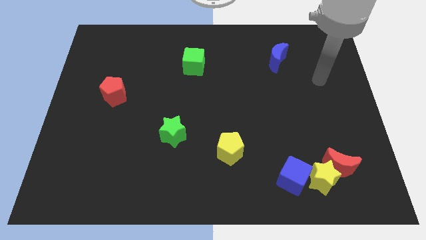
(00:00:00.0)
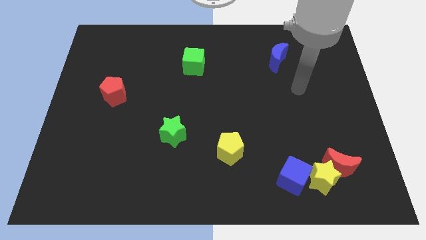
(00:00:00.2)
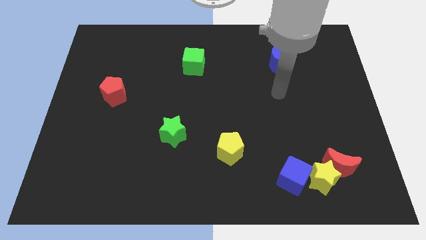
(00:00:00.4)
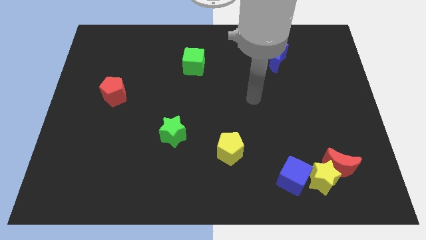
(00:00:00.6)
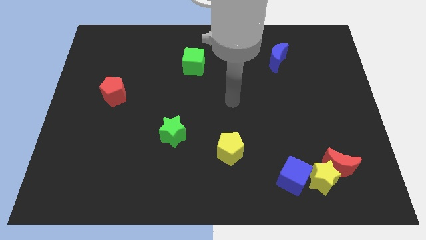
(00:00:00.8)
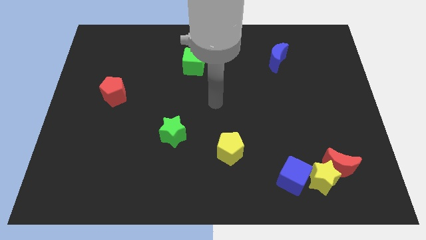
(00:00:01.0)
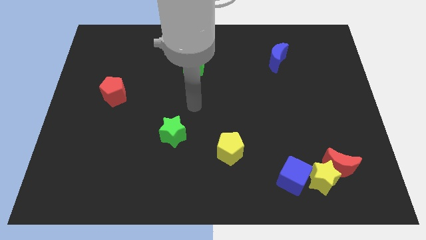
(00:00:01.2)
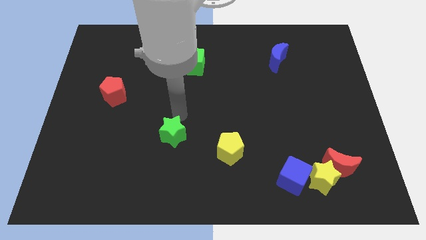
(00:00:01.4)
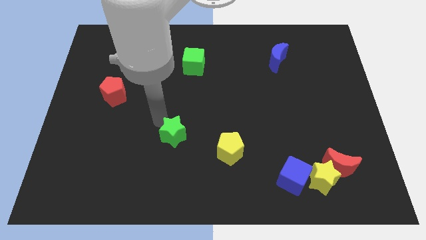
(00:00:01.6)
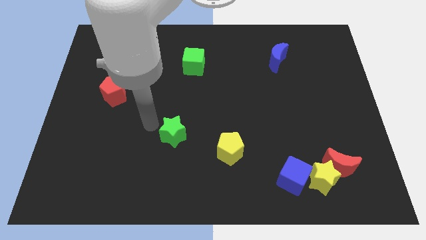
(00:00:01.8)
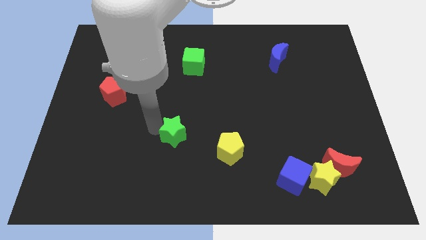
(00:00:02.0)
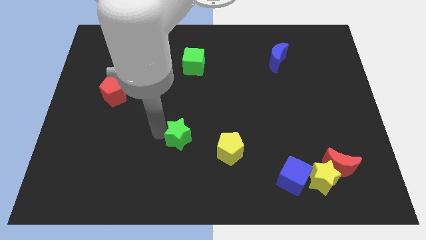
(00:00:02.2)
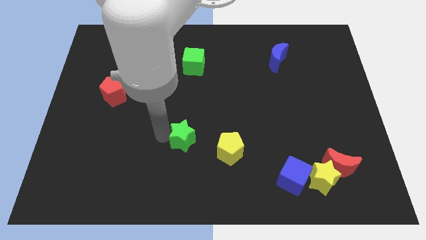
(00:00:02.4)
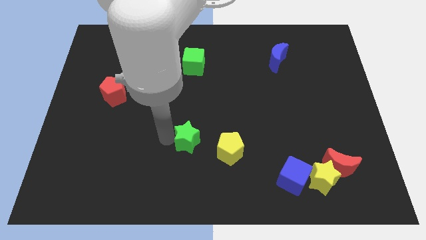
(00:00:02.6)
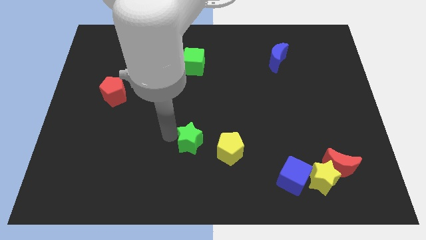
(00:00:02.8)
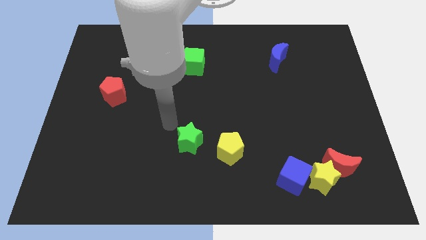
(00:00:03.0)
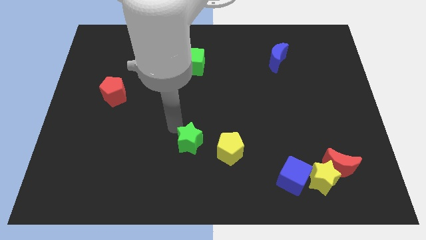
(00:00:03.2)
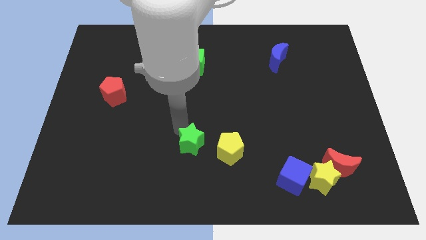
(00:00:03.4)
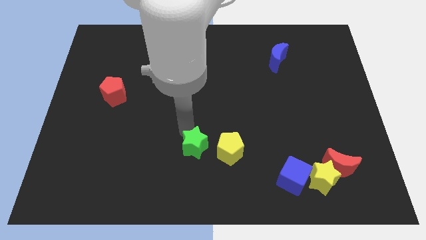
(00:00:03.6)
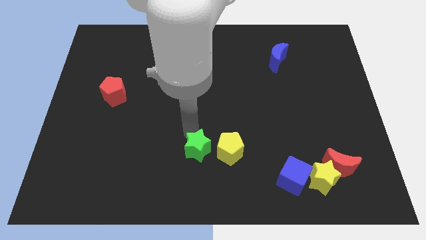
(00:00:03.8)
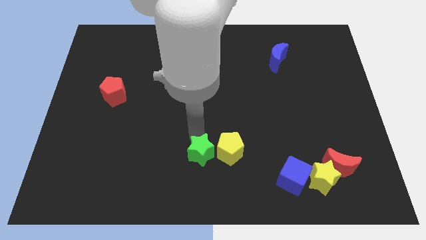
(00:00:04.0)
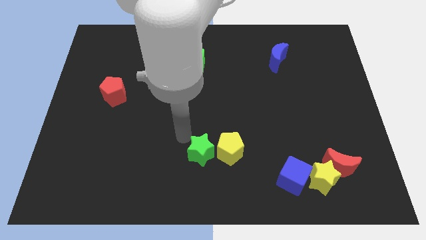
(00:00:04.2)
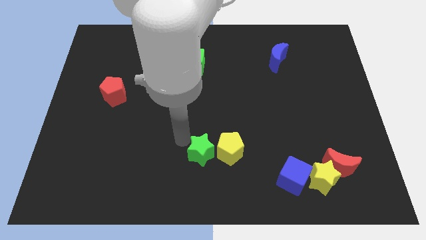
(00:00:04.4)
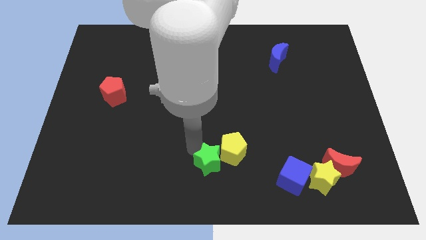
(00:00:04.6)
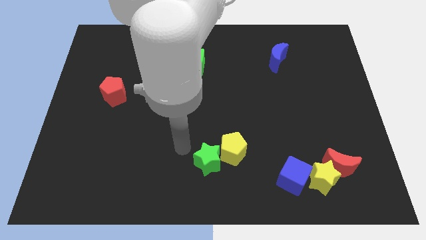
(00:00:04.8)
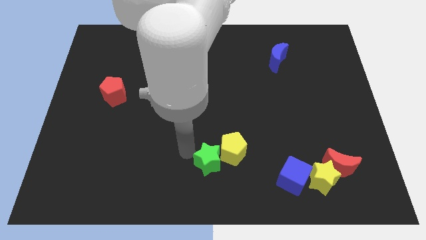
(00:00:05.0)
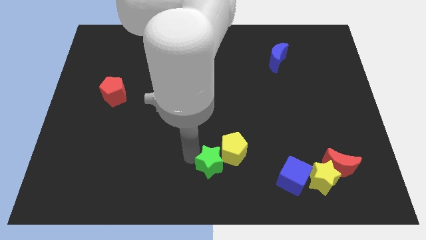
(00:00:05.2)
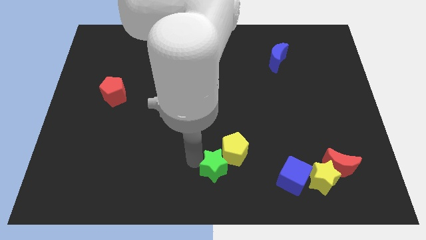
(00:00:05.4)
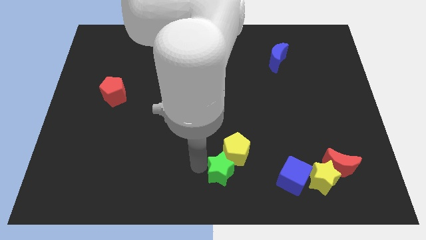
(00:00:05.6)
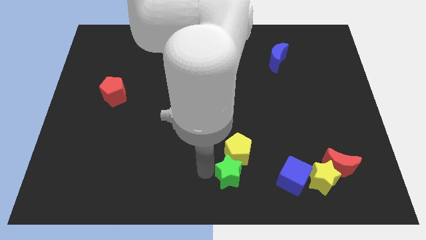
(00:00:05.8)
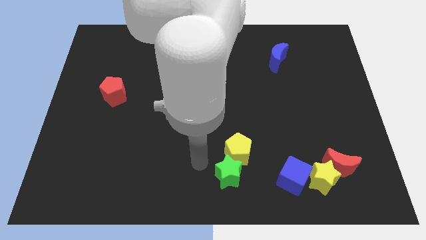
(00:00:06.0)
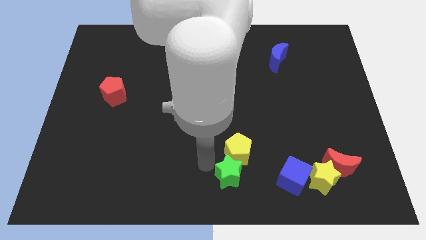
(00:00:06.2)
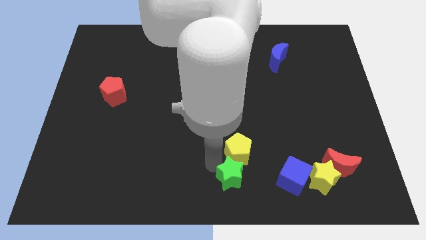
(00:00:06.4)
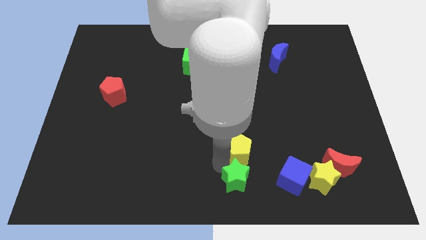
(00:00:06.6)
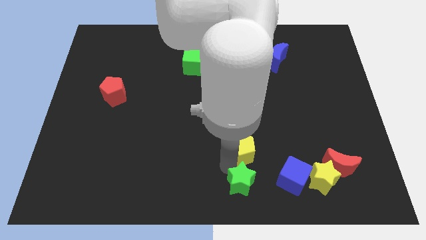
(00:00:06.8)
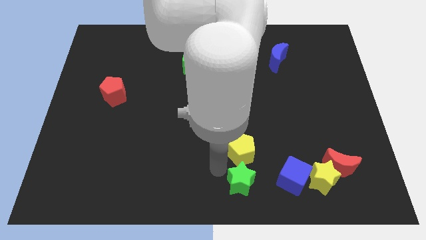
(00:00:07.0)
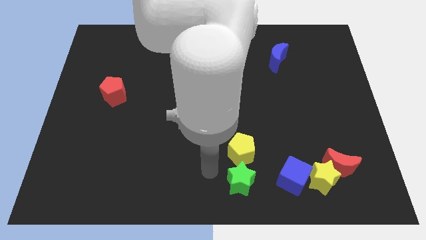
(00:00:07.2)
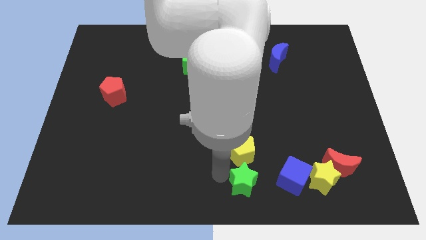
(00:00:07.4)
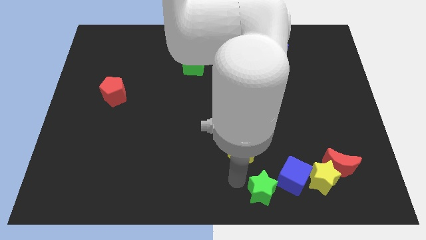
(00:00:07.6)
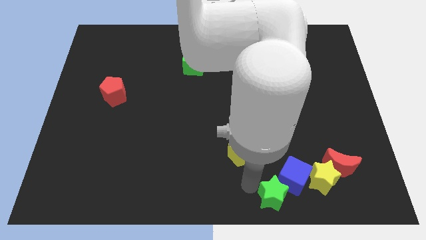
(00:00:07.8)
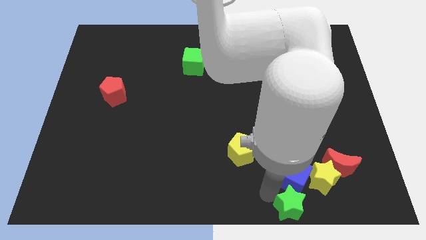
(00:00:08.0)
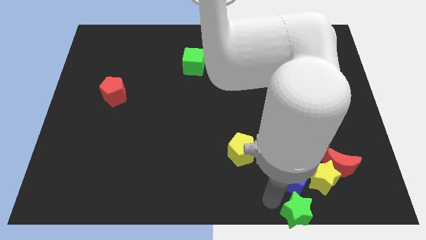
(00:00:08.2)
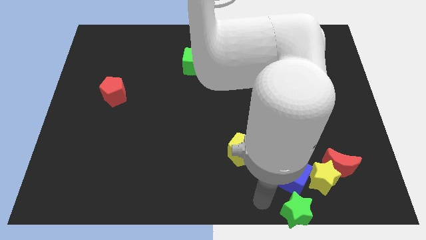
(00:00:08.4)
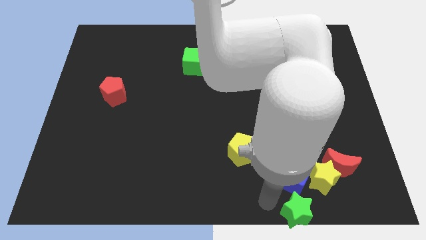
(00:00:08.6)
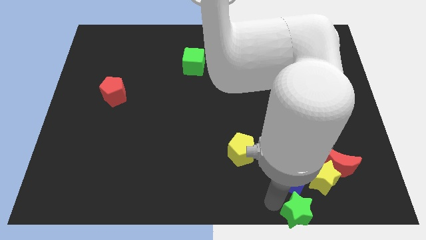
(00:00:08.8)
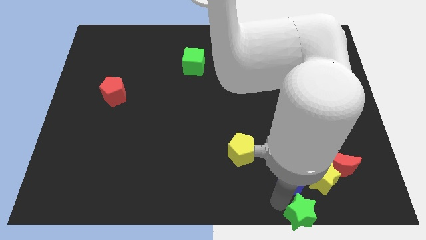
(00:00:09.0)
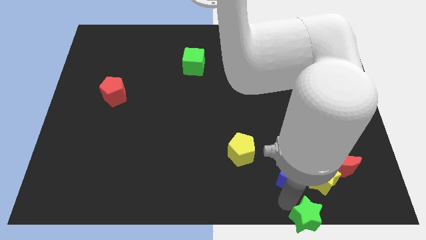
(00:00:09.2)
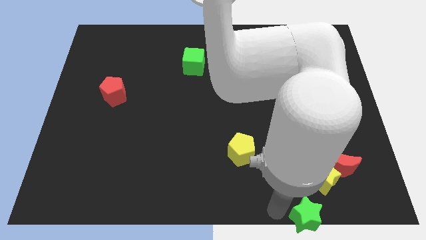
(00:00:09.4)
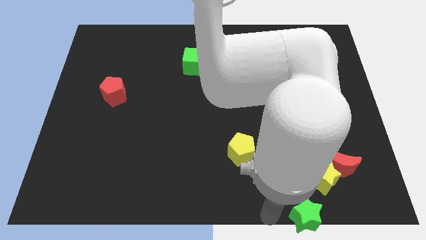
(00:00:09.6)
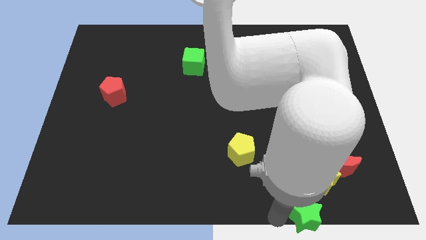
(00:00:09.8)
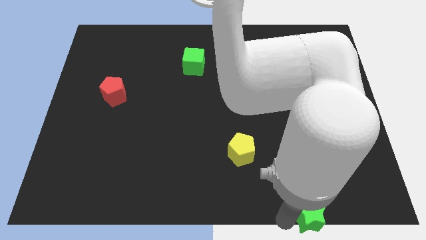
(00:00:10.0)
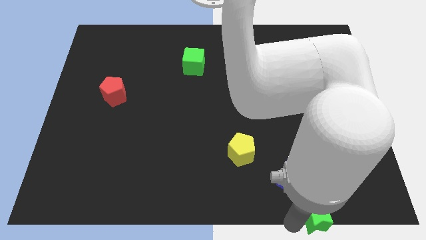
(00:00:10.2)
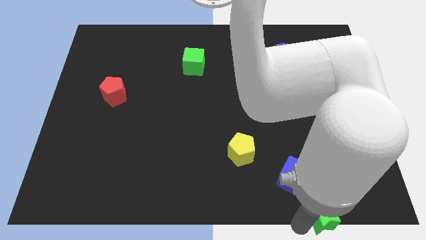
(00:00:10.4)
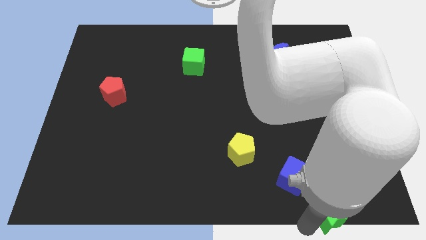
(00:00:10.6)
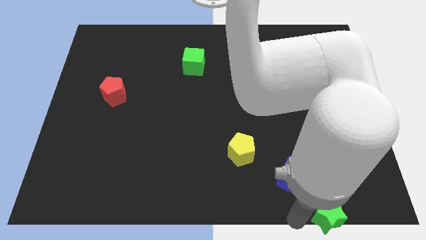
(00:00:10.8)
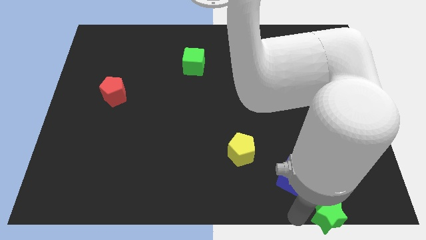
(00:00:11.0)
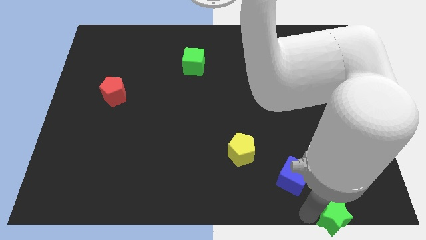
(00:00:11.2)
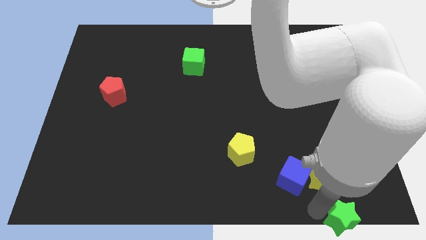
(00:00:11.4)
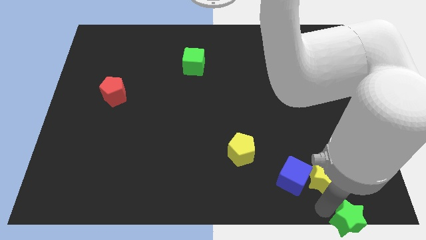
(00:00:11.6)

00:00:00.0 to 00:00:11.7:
slide the green star to the bottom right of the board
